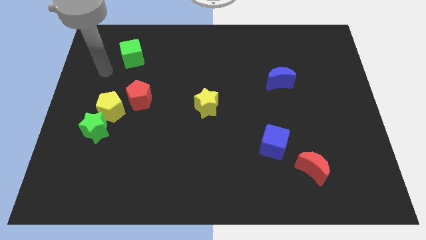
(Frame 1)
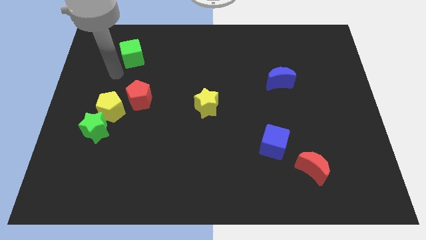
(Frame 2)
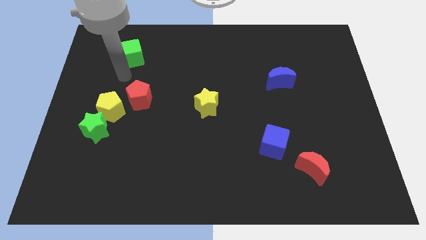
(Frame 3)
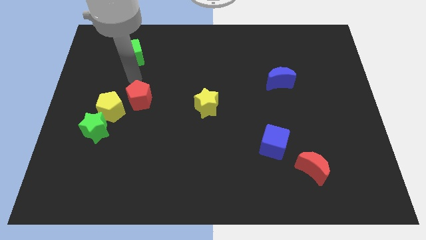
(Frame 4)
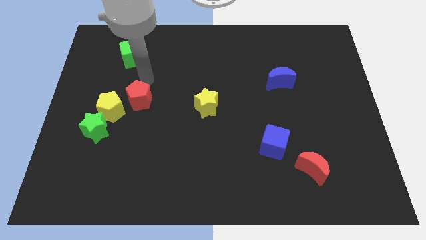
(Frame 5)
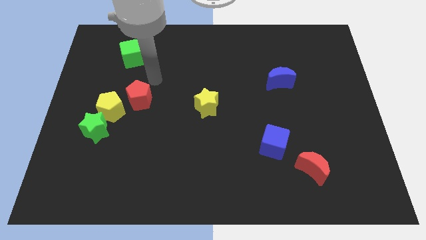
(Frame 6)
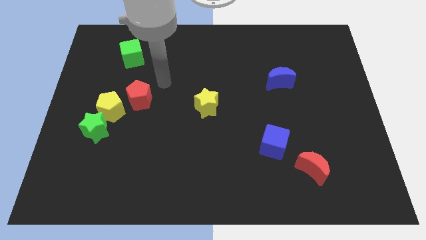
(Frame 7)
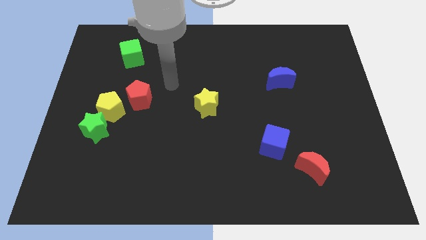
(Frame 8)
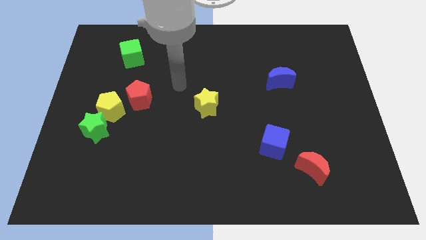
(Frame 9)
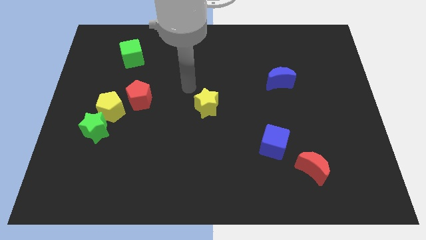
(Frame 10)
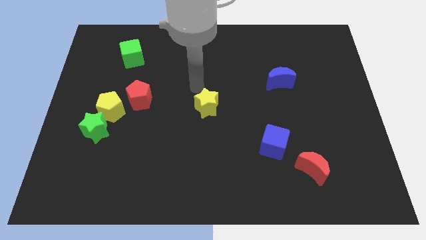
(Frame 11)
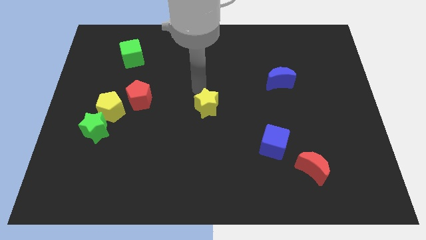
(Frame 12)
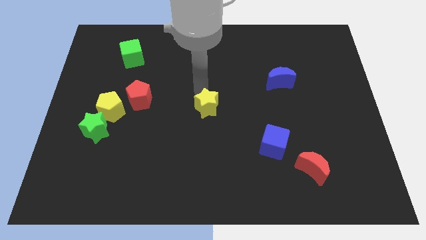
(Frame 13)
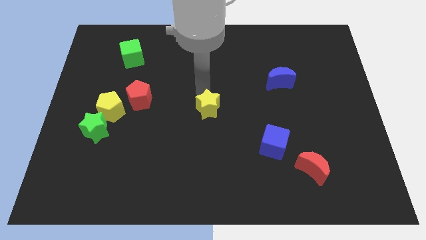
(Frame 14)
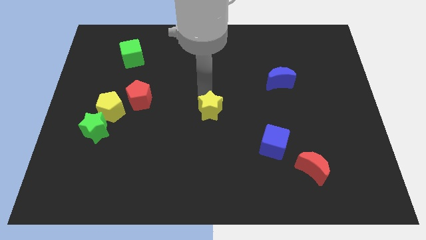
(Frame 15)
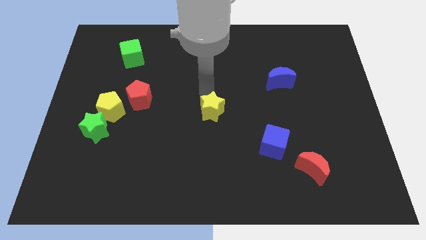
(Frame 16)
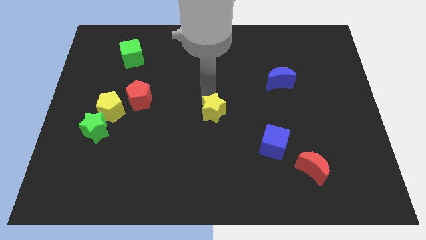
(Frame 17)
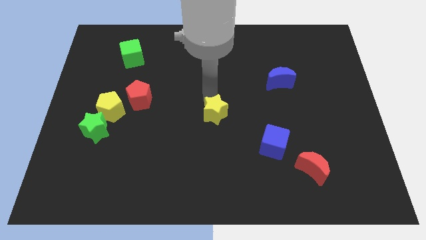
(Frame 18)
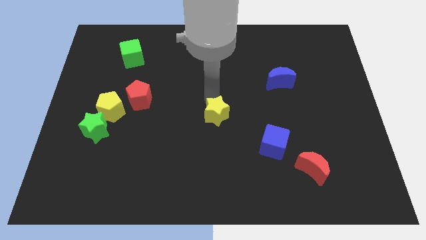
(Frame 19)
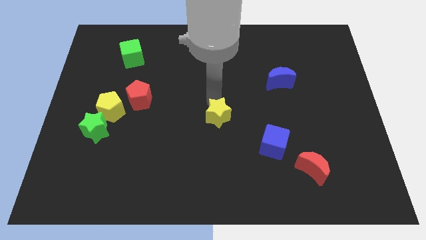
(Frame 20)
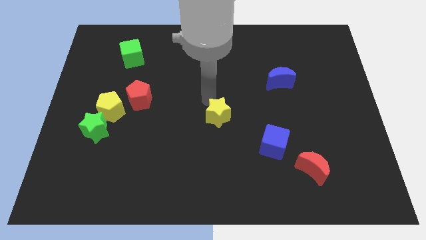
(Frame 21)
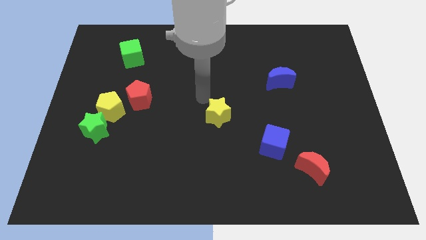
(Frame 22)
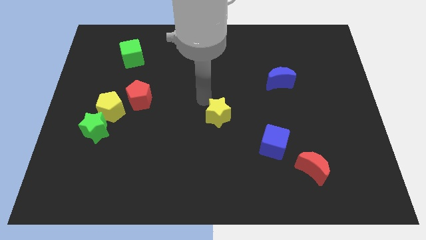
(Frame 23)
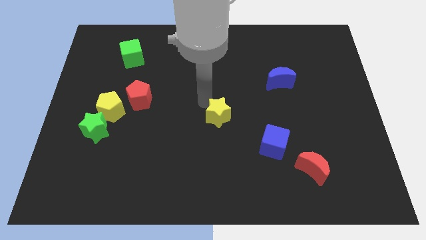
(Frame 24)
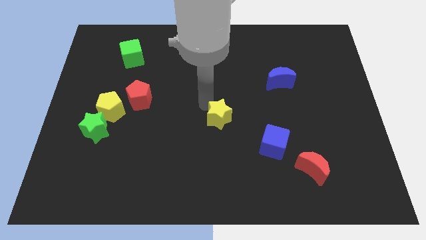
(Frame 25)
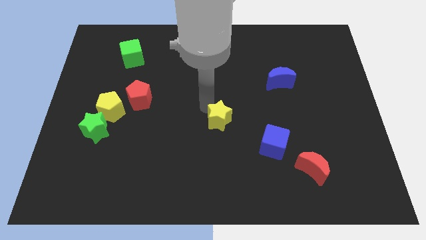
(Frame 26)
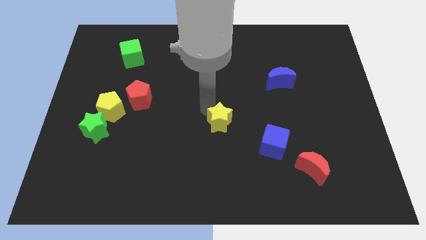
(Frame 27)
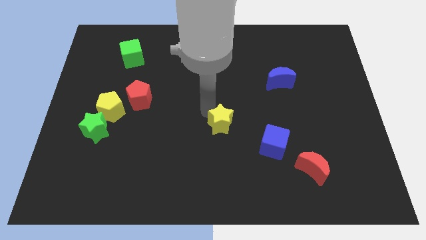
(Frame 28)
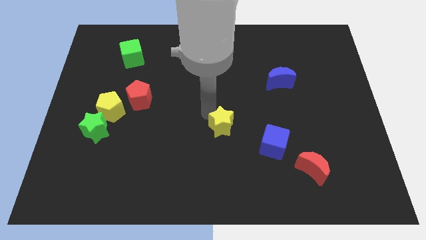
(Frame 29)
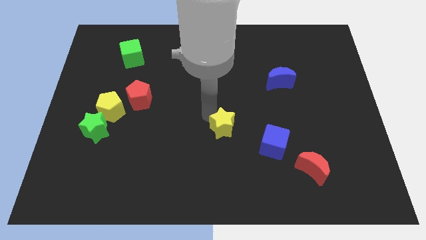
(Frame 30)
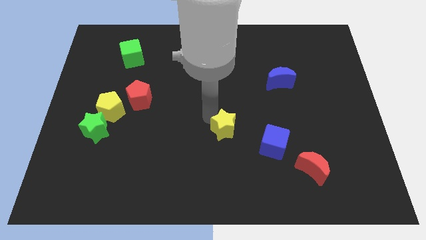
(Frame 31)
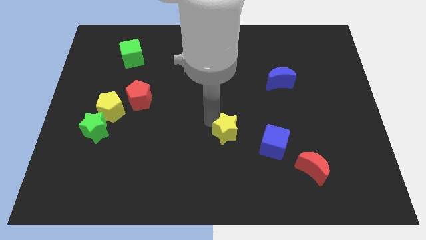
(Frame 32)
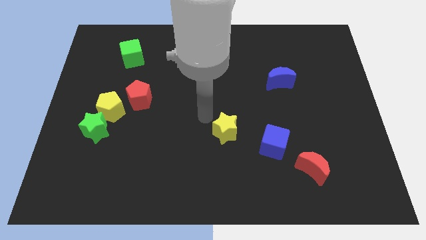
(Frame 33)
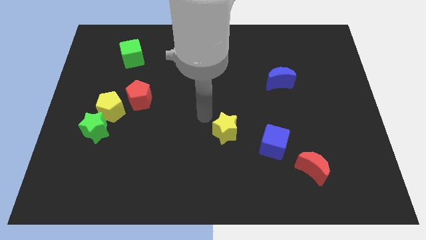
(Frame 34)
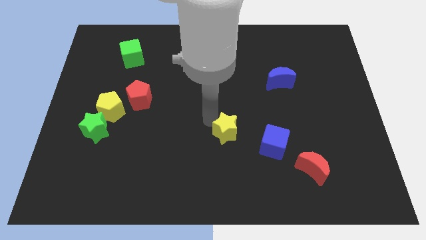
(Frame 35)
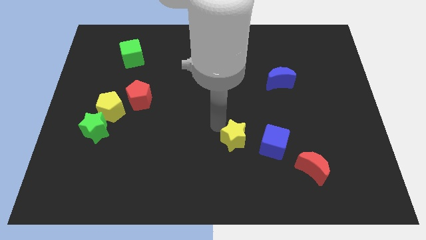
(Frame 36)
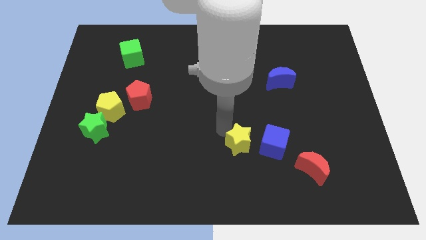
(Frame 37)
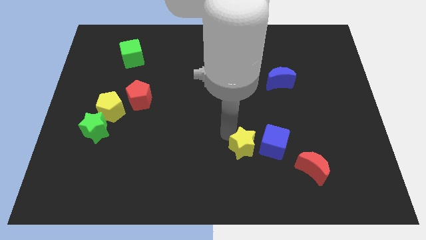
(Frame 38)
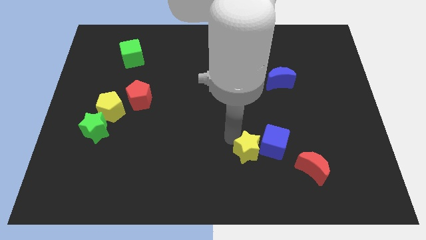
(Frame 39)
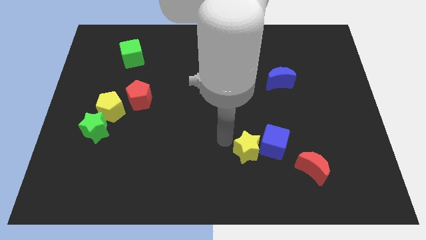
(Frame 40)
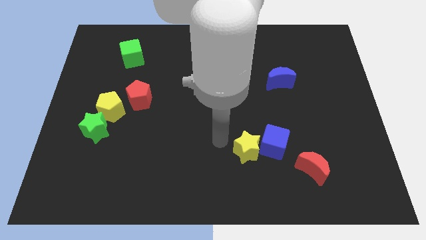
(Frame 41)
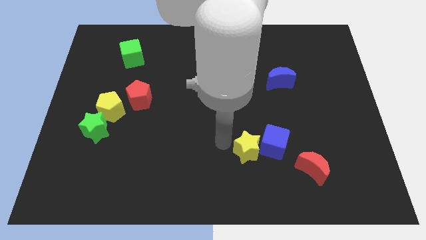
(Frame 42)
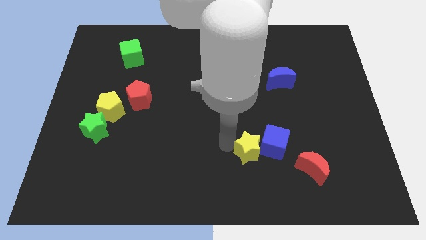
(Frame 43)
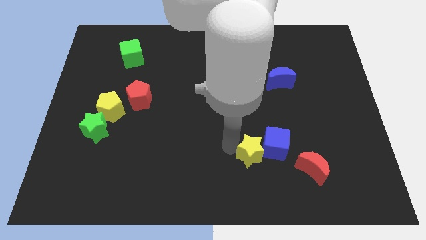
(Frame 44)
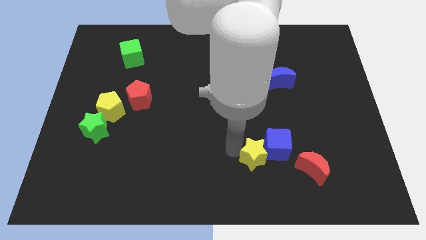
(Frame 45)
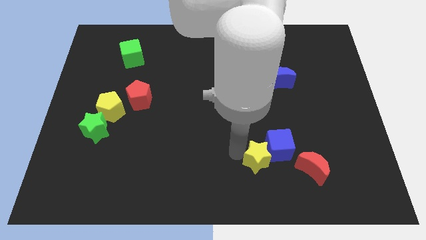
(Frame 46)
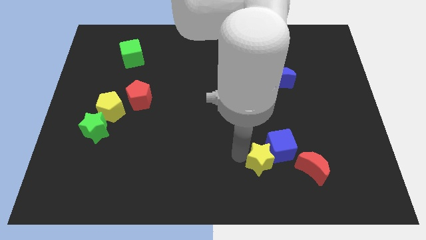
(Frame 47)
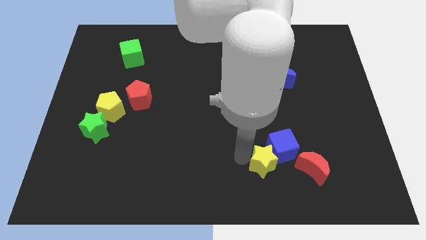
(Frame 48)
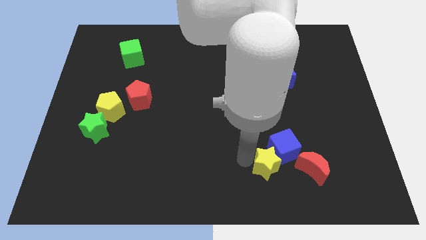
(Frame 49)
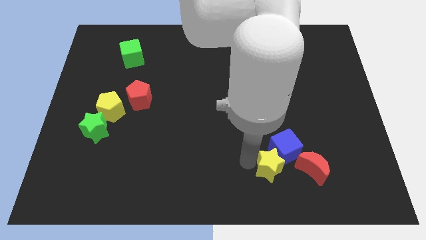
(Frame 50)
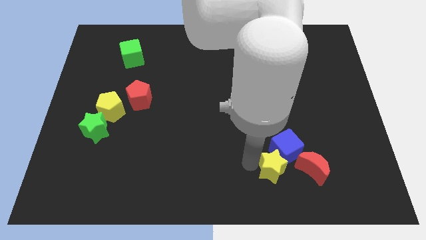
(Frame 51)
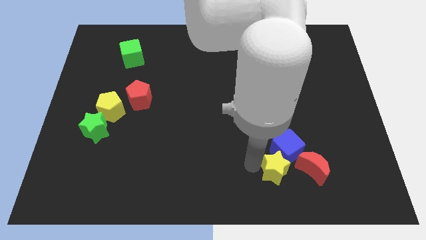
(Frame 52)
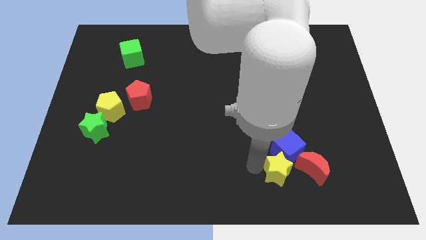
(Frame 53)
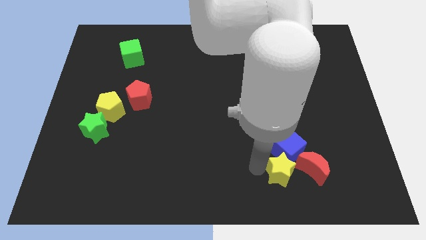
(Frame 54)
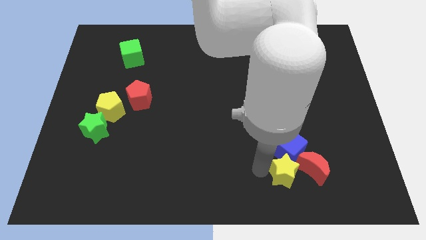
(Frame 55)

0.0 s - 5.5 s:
slide the yellow star towards the red moon

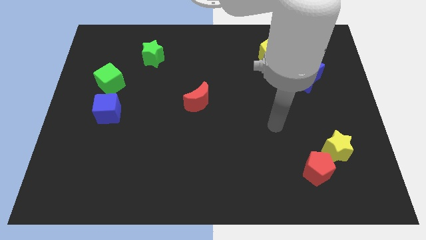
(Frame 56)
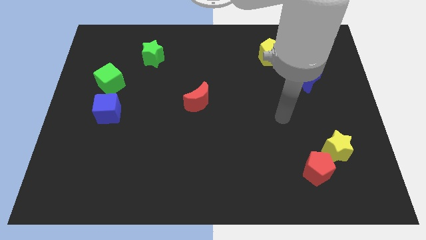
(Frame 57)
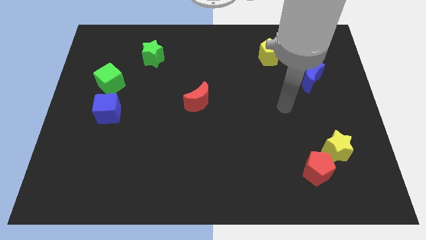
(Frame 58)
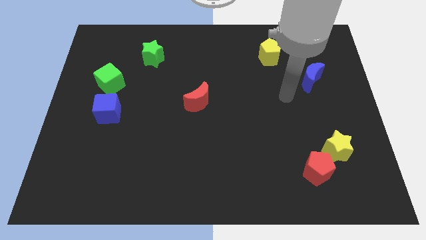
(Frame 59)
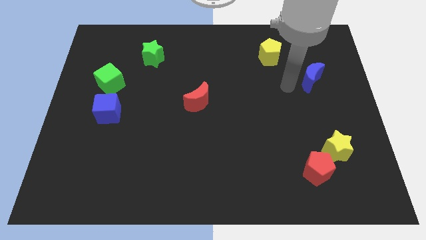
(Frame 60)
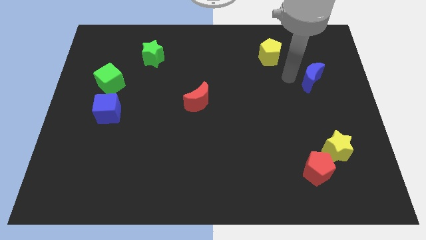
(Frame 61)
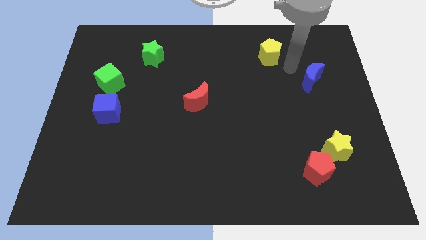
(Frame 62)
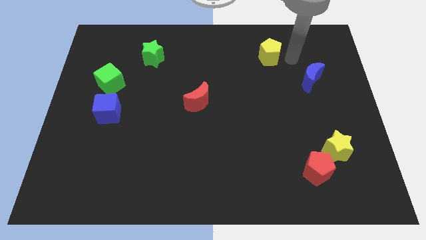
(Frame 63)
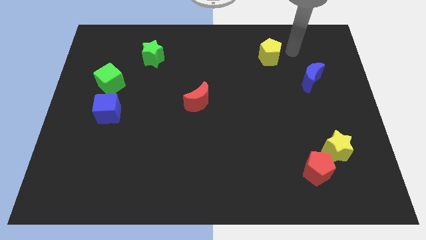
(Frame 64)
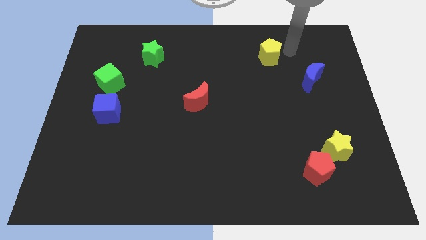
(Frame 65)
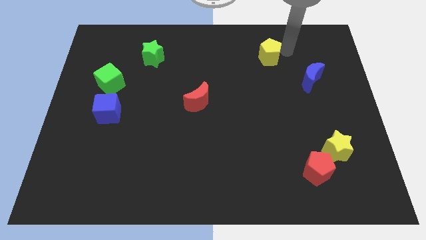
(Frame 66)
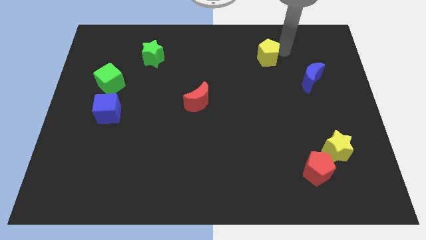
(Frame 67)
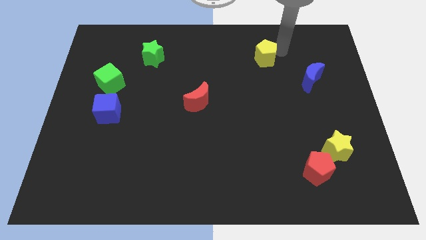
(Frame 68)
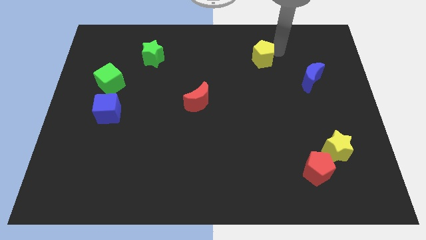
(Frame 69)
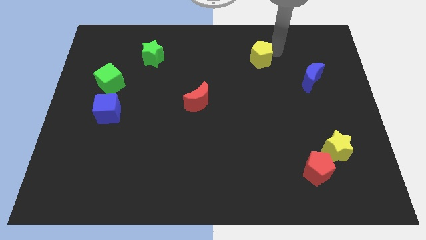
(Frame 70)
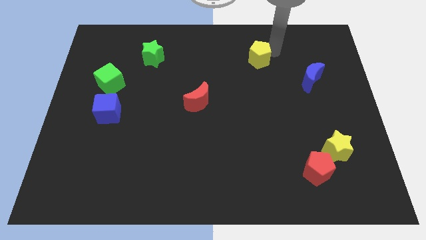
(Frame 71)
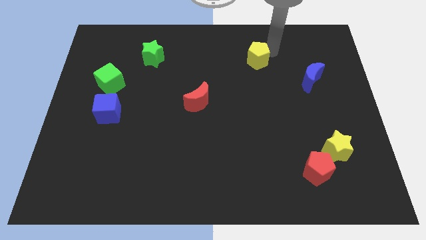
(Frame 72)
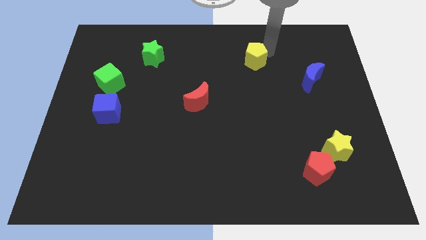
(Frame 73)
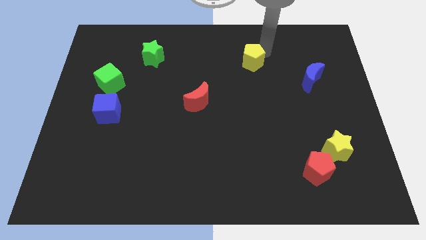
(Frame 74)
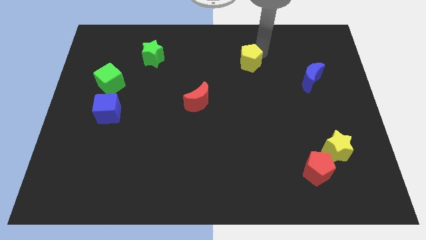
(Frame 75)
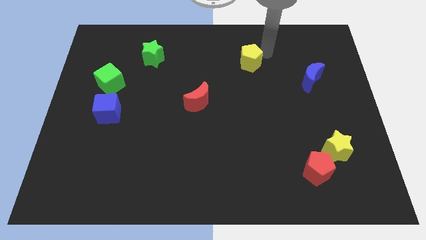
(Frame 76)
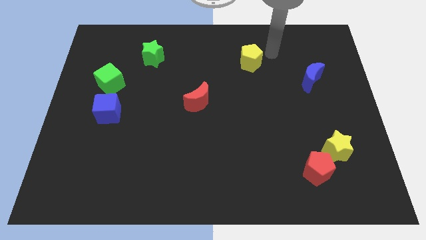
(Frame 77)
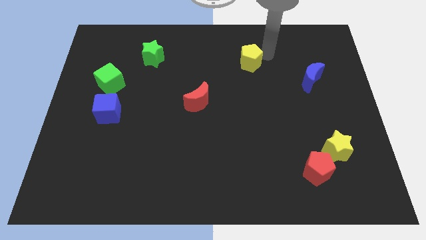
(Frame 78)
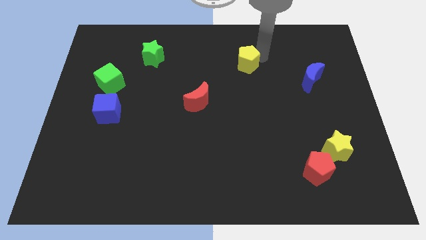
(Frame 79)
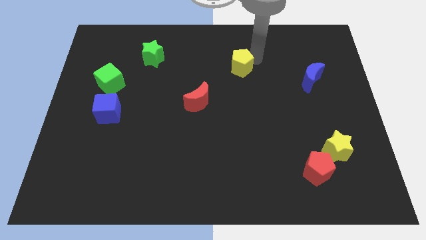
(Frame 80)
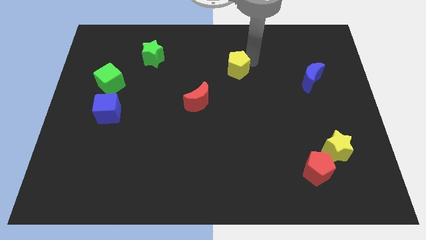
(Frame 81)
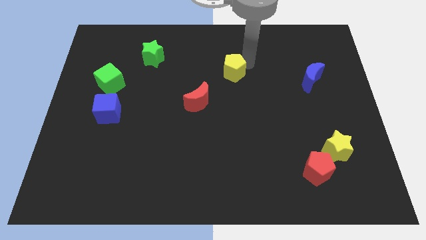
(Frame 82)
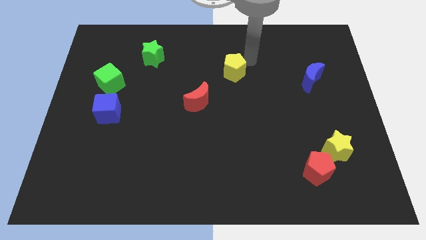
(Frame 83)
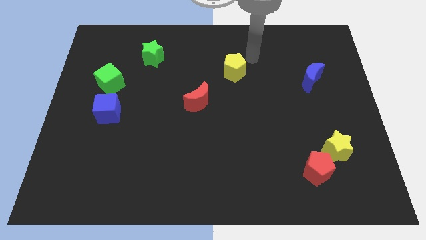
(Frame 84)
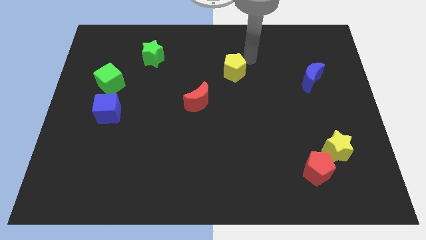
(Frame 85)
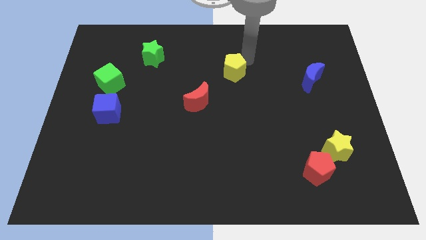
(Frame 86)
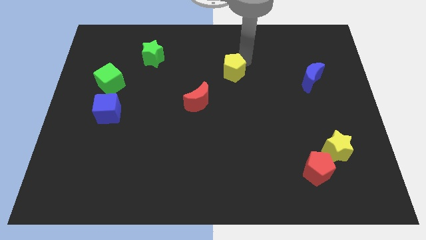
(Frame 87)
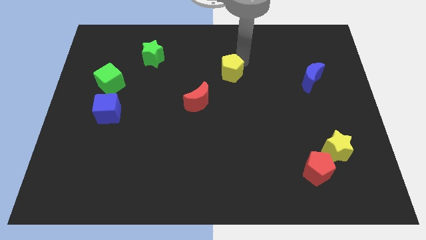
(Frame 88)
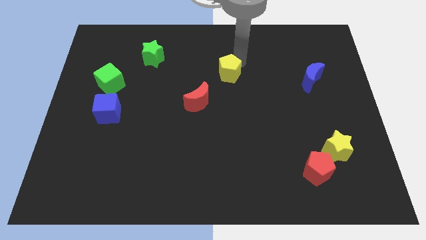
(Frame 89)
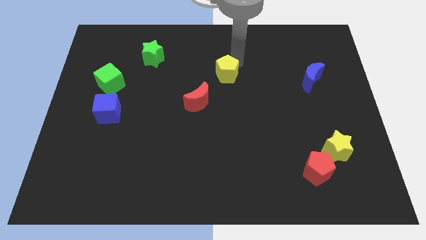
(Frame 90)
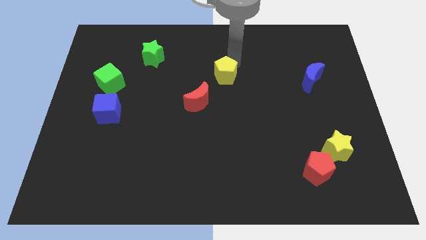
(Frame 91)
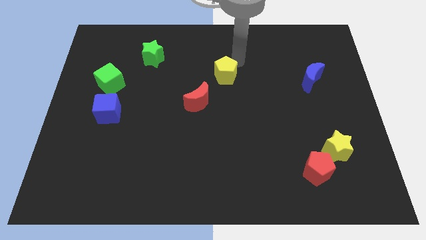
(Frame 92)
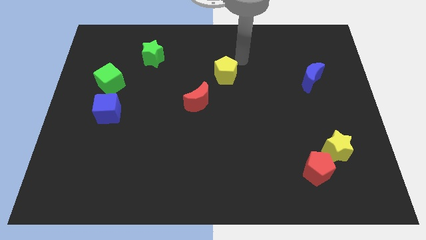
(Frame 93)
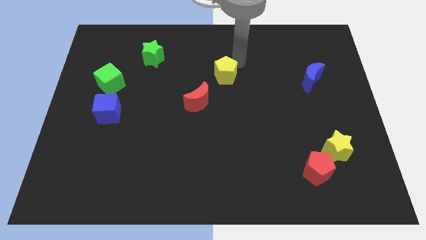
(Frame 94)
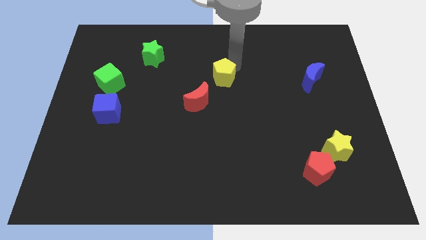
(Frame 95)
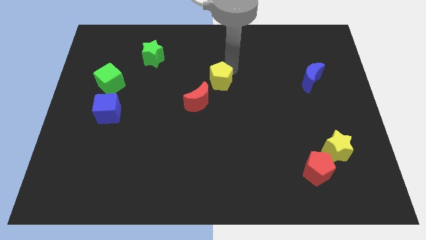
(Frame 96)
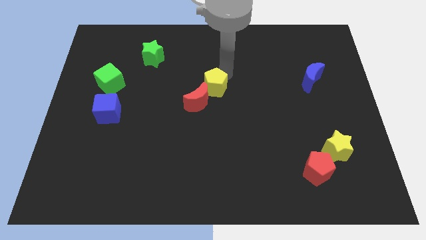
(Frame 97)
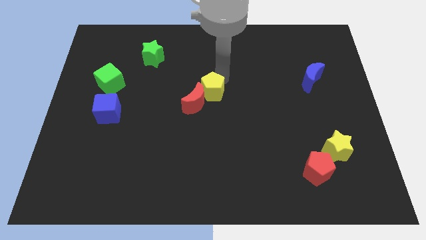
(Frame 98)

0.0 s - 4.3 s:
slide the yellow pentagon next to the red moon
